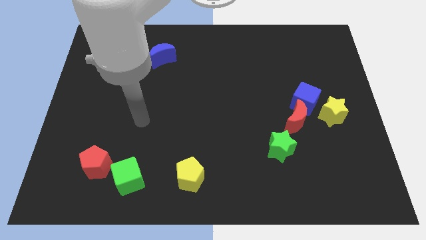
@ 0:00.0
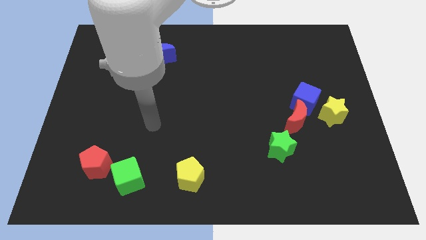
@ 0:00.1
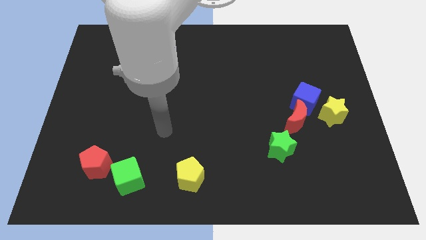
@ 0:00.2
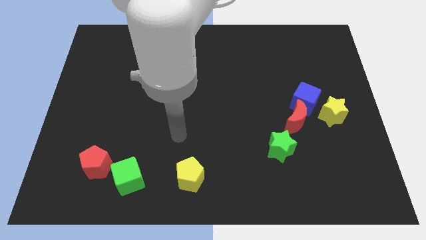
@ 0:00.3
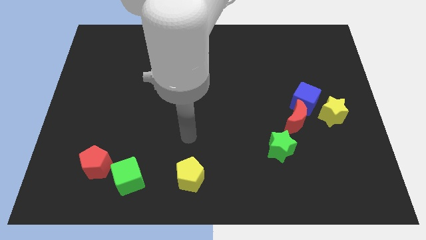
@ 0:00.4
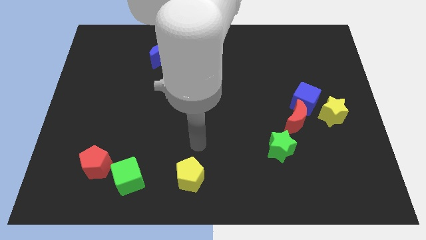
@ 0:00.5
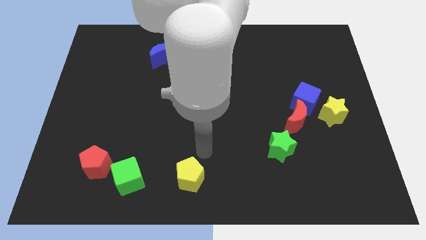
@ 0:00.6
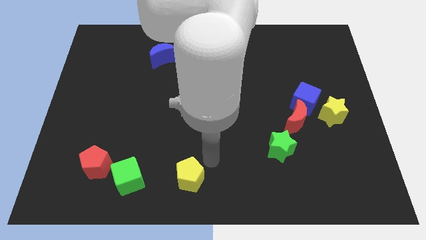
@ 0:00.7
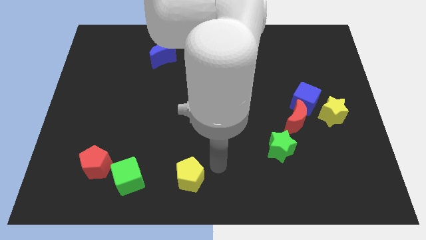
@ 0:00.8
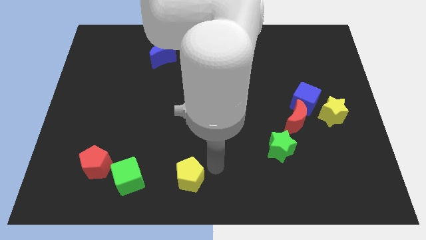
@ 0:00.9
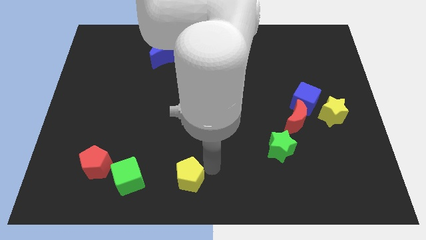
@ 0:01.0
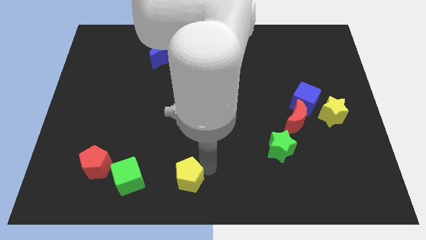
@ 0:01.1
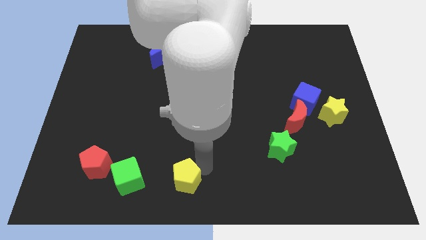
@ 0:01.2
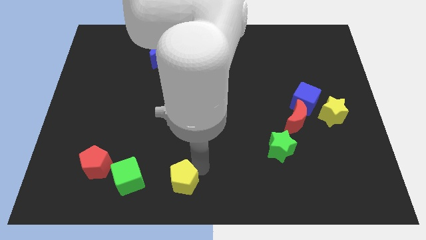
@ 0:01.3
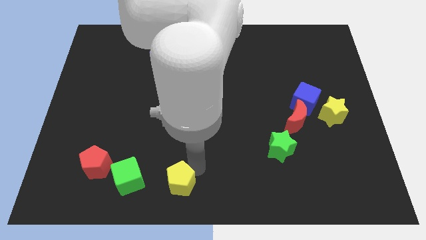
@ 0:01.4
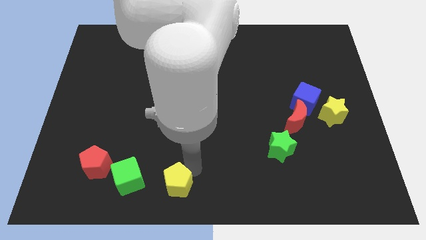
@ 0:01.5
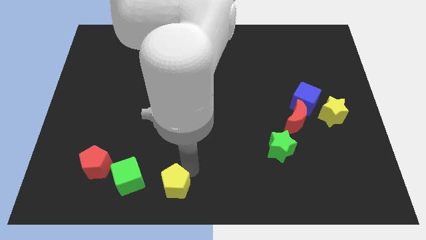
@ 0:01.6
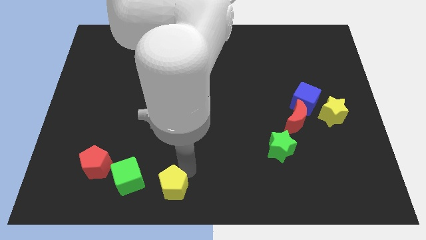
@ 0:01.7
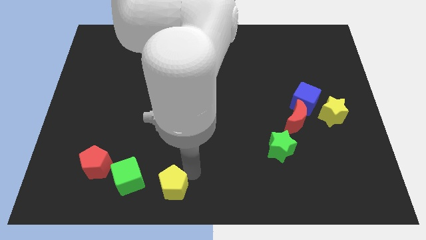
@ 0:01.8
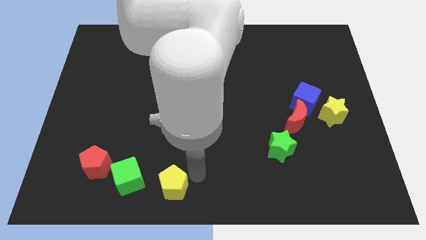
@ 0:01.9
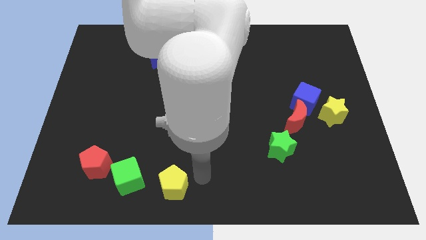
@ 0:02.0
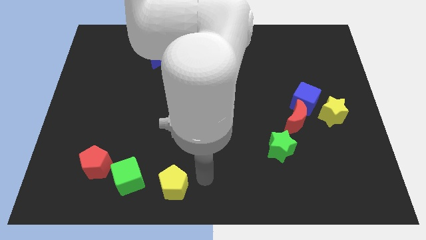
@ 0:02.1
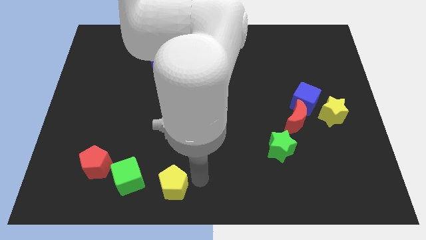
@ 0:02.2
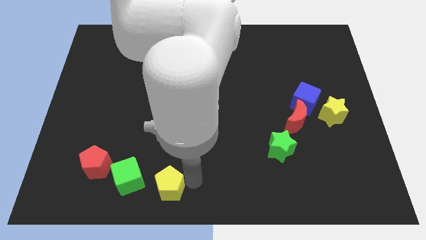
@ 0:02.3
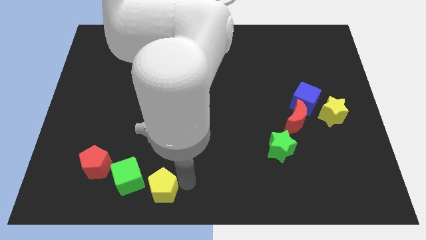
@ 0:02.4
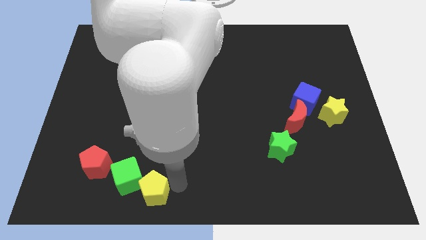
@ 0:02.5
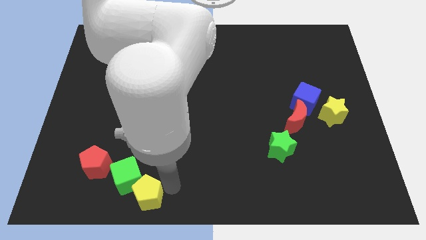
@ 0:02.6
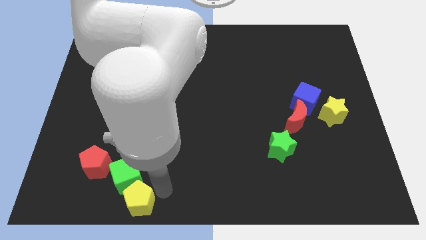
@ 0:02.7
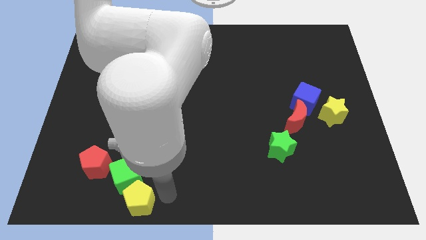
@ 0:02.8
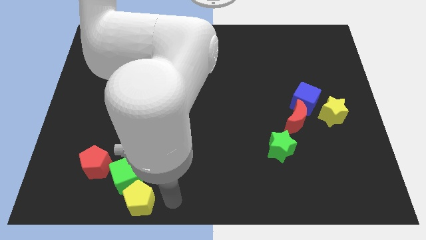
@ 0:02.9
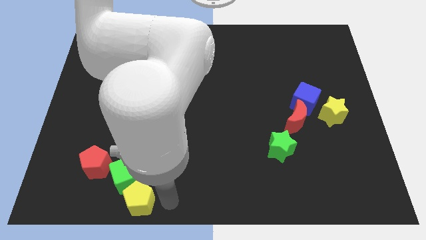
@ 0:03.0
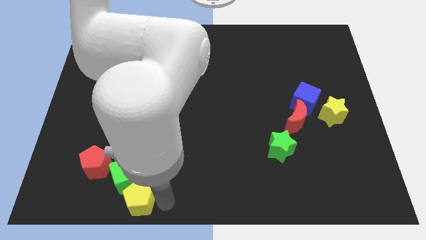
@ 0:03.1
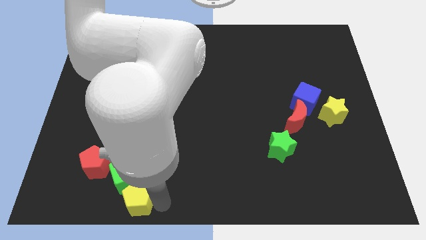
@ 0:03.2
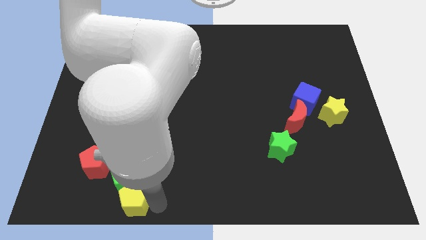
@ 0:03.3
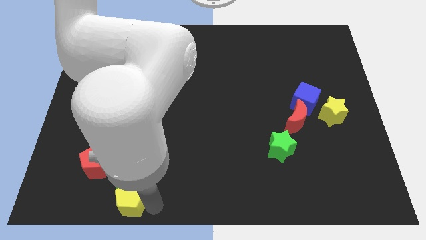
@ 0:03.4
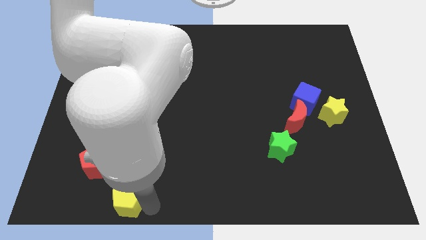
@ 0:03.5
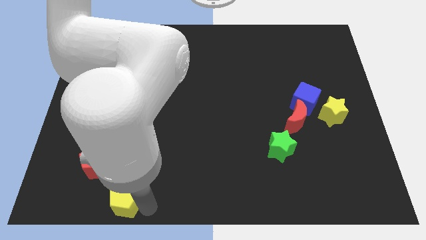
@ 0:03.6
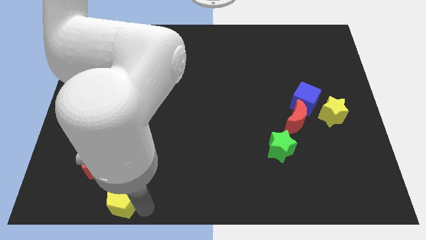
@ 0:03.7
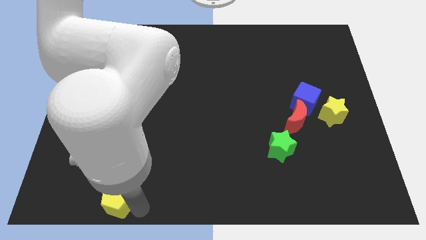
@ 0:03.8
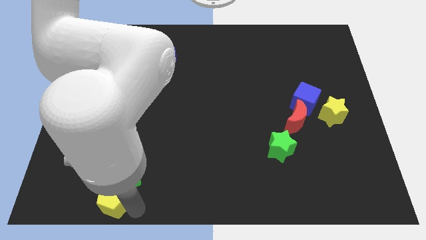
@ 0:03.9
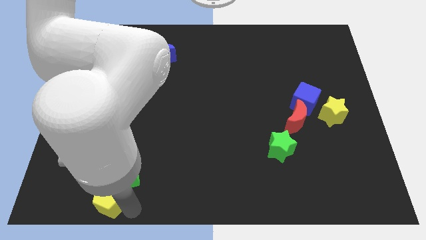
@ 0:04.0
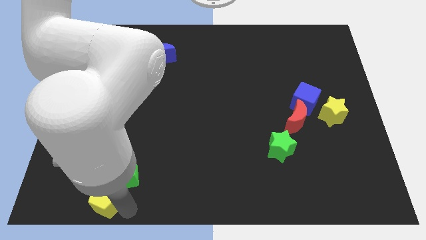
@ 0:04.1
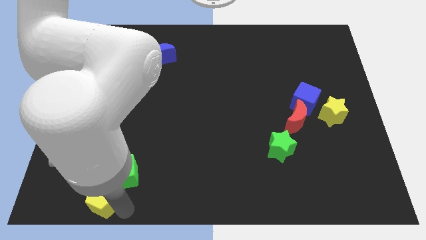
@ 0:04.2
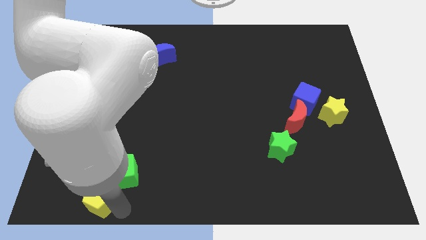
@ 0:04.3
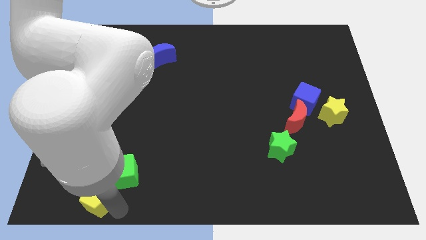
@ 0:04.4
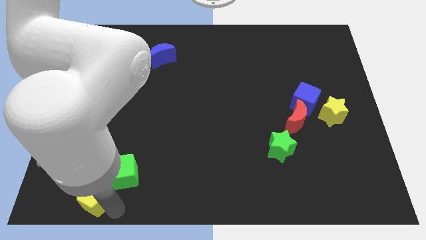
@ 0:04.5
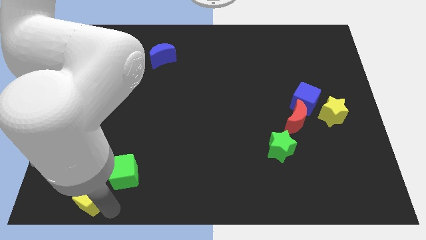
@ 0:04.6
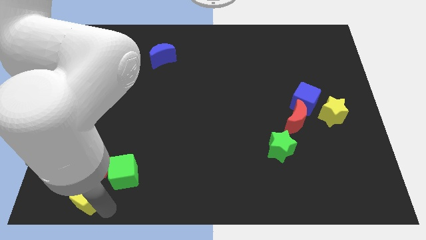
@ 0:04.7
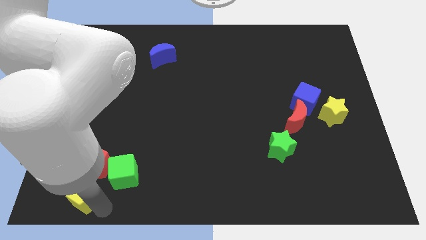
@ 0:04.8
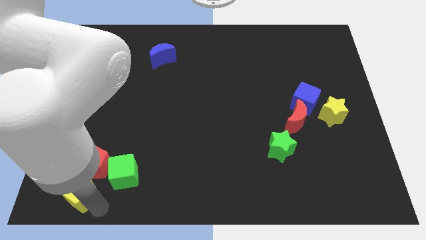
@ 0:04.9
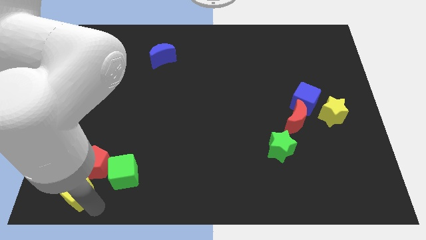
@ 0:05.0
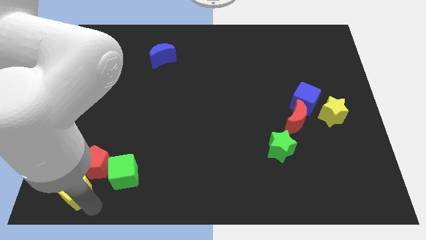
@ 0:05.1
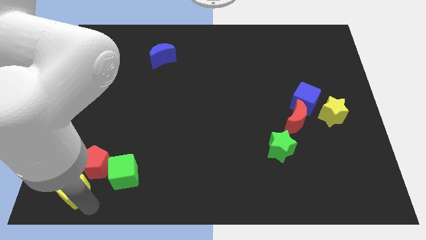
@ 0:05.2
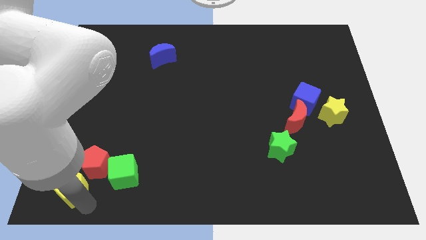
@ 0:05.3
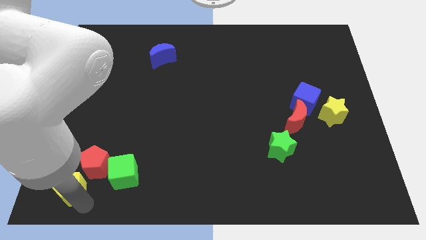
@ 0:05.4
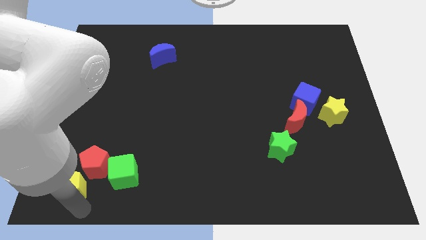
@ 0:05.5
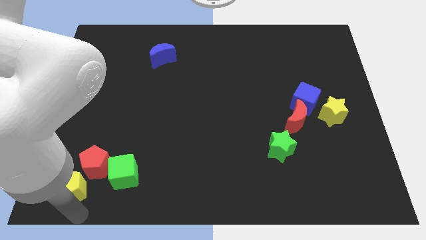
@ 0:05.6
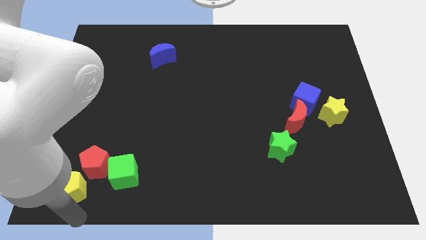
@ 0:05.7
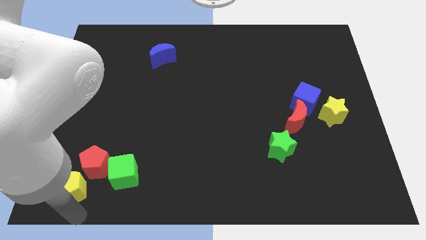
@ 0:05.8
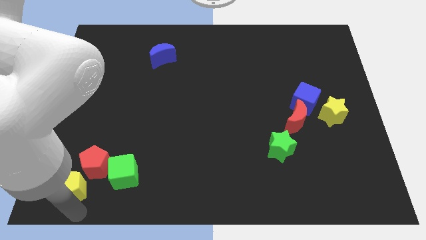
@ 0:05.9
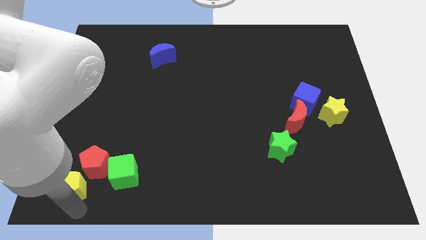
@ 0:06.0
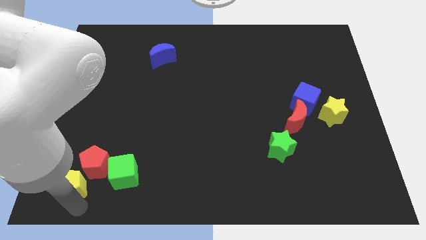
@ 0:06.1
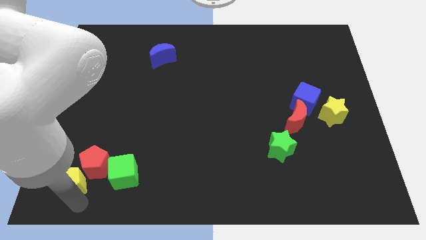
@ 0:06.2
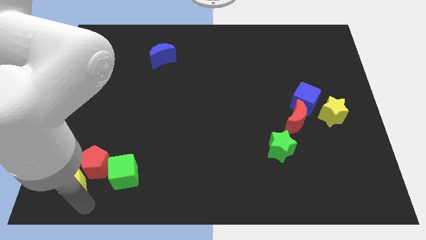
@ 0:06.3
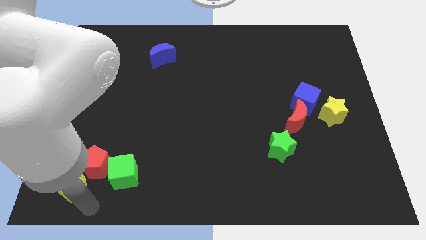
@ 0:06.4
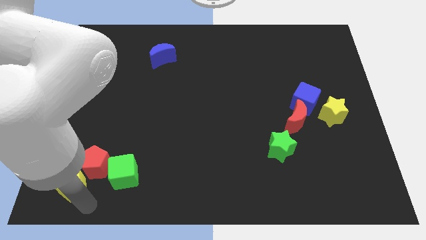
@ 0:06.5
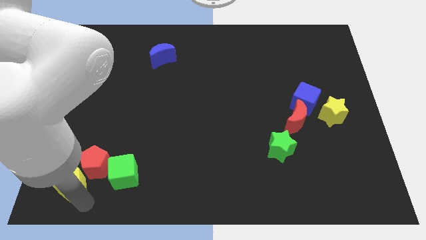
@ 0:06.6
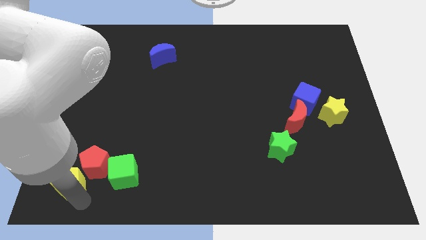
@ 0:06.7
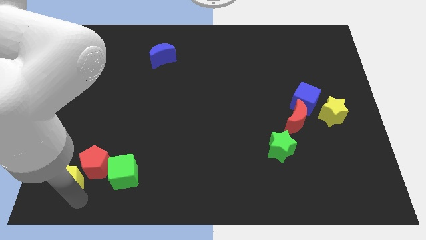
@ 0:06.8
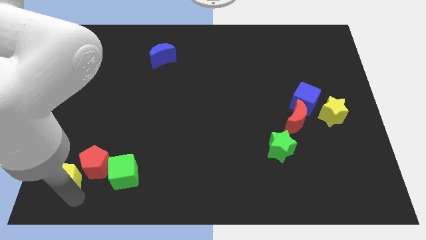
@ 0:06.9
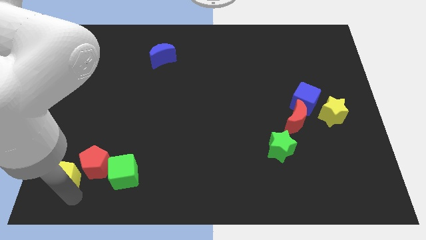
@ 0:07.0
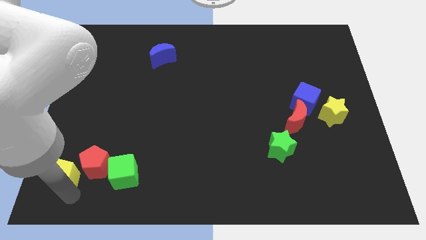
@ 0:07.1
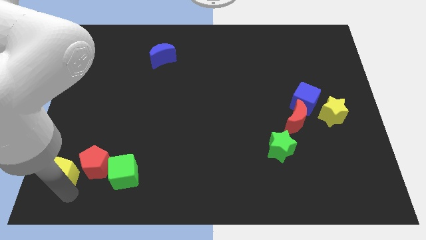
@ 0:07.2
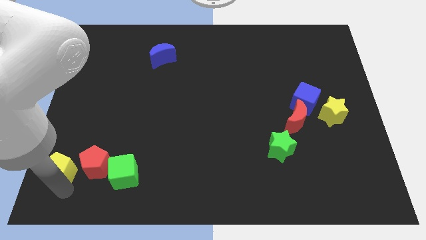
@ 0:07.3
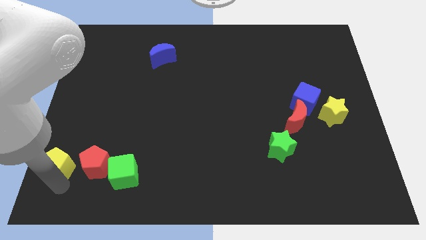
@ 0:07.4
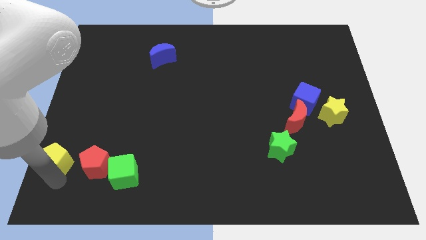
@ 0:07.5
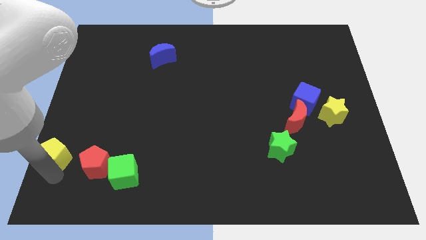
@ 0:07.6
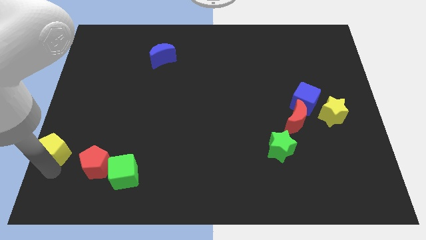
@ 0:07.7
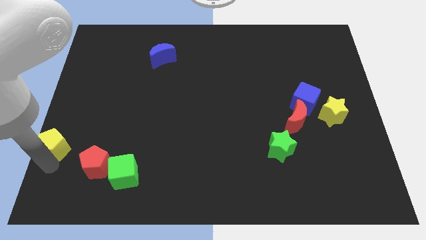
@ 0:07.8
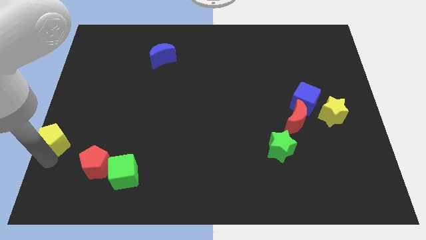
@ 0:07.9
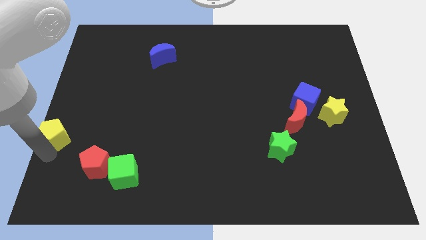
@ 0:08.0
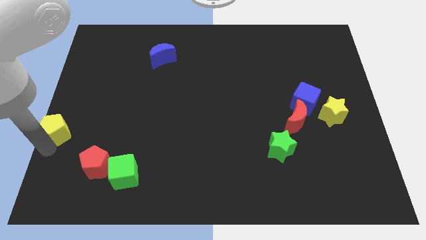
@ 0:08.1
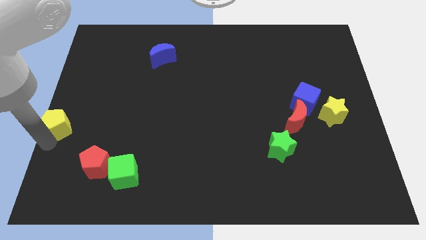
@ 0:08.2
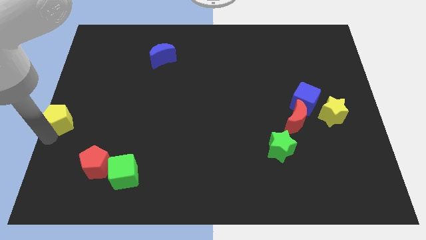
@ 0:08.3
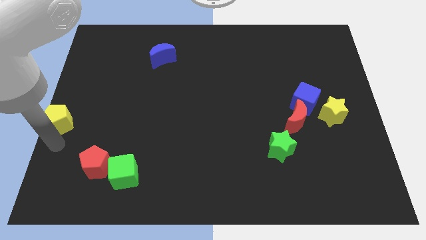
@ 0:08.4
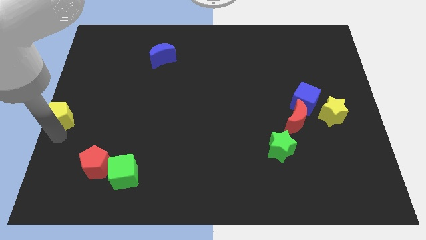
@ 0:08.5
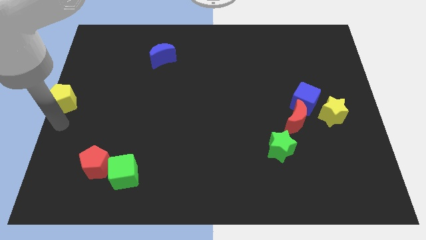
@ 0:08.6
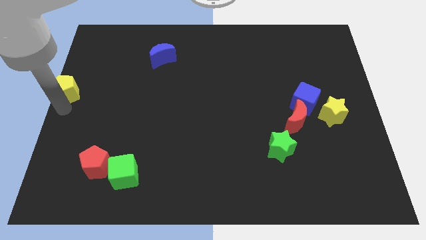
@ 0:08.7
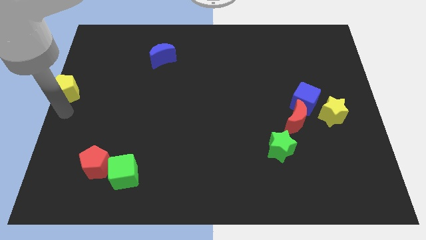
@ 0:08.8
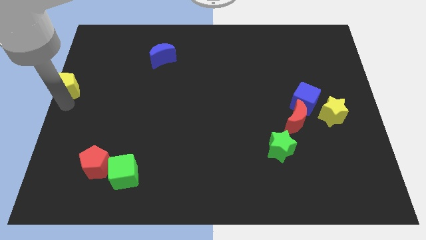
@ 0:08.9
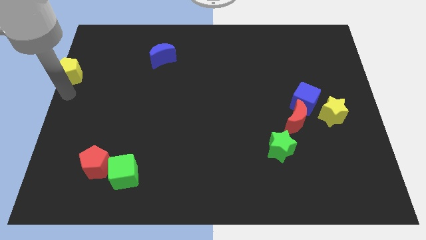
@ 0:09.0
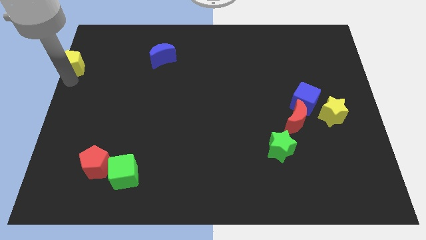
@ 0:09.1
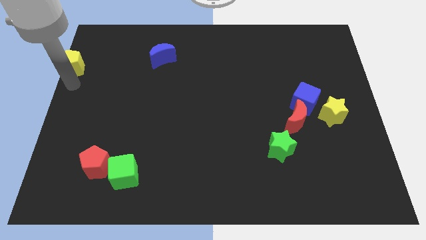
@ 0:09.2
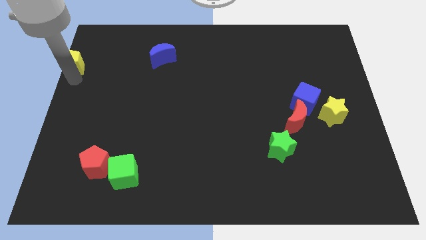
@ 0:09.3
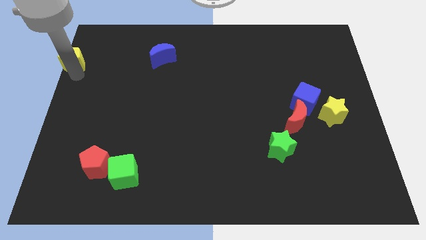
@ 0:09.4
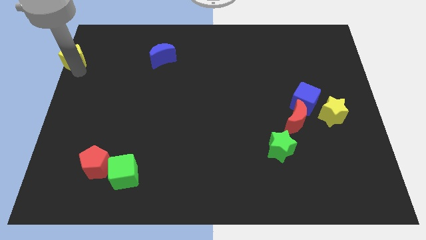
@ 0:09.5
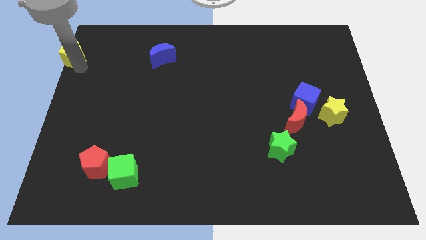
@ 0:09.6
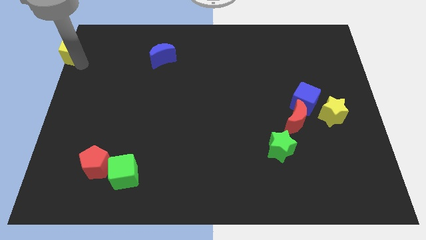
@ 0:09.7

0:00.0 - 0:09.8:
put the yellow pentagon to the upper left corner
